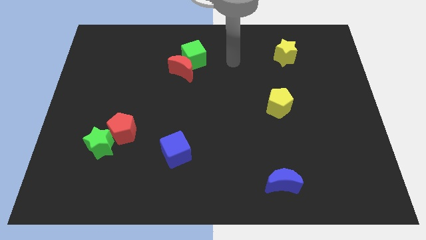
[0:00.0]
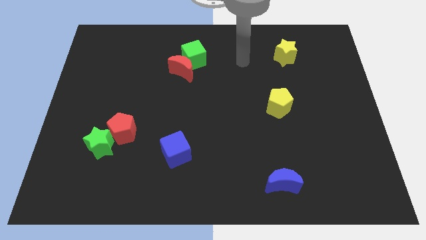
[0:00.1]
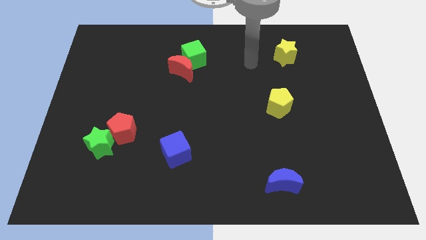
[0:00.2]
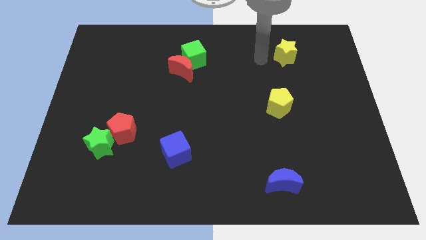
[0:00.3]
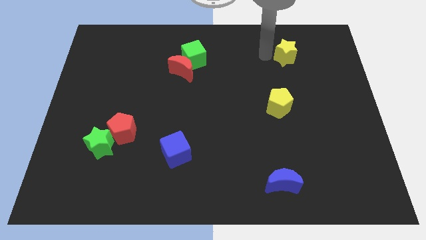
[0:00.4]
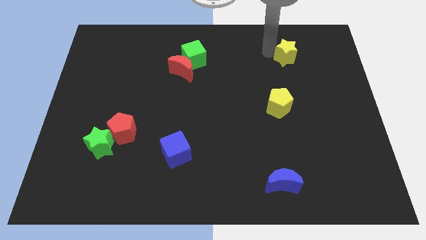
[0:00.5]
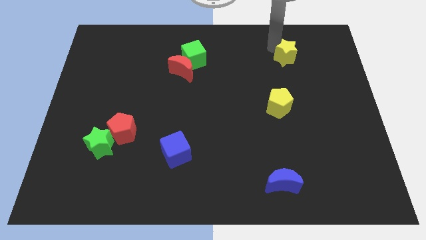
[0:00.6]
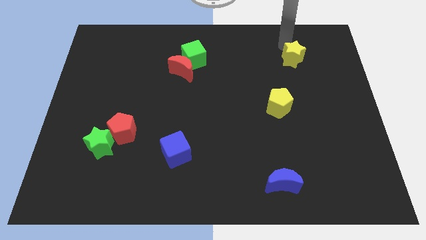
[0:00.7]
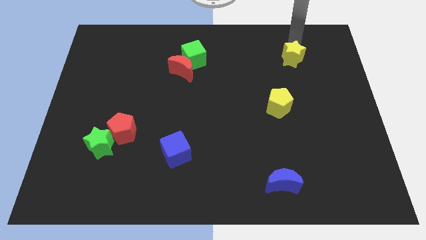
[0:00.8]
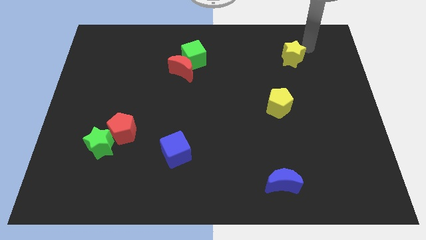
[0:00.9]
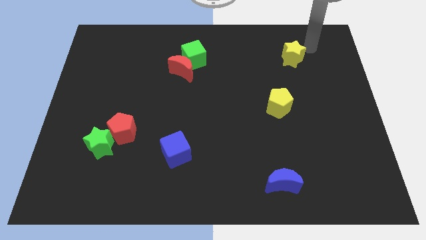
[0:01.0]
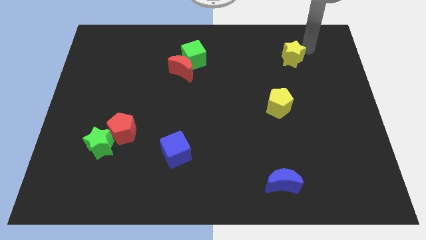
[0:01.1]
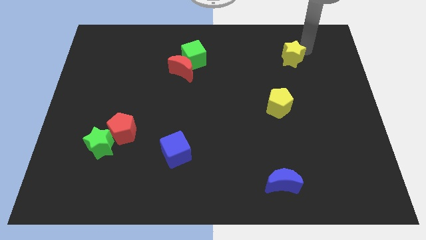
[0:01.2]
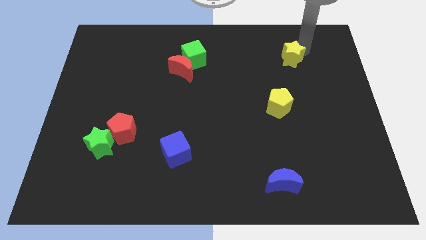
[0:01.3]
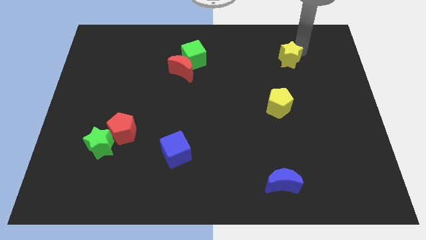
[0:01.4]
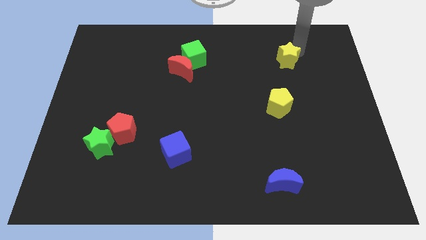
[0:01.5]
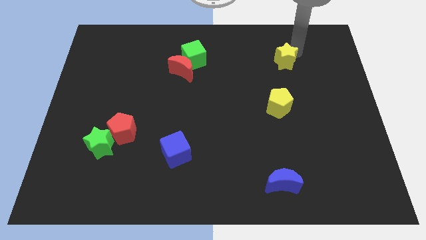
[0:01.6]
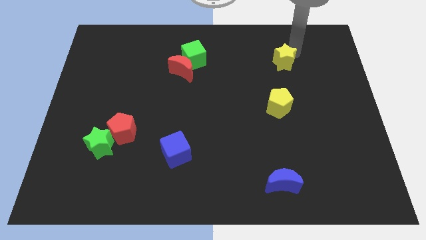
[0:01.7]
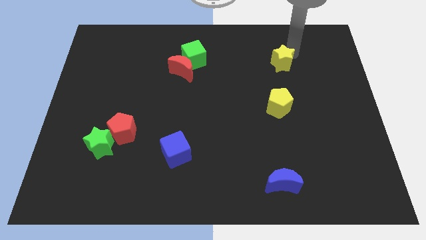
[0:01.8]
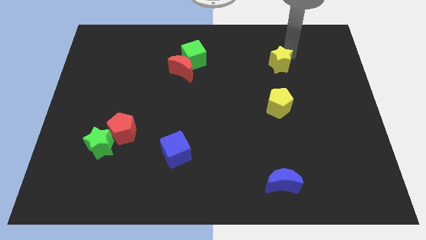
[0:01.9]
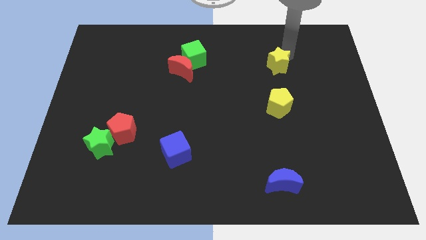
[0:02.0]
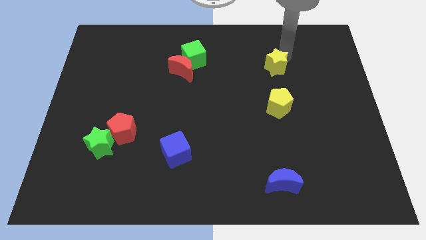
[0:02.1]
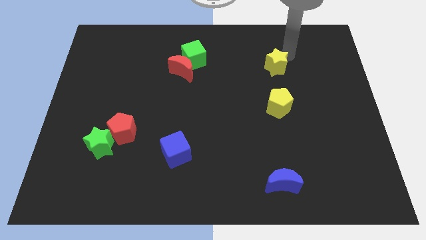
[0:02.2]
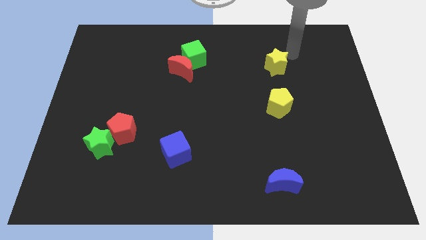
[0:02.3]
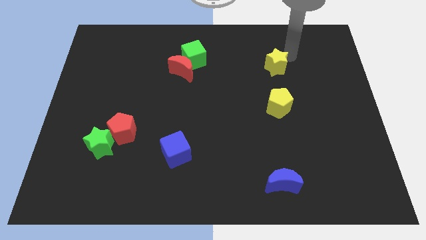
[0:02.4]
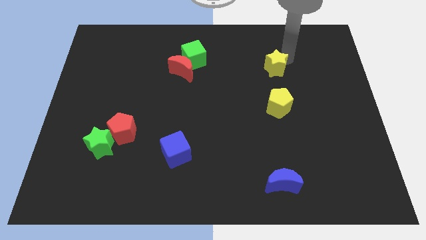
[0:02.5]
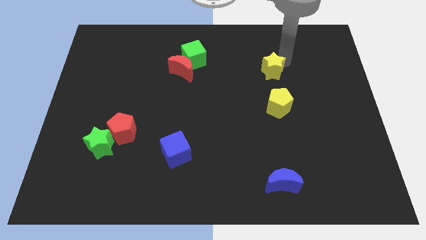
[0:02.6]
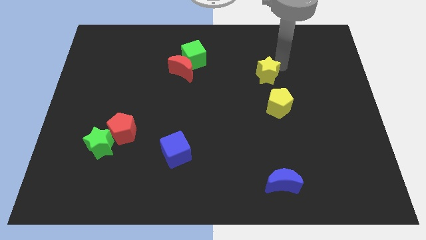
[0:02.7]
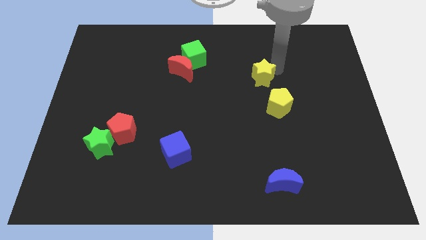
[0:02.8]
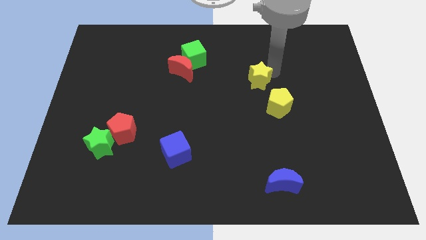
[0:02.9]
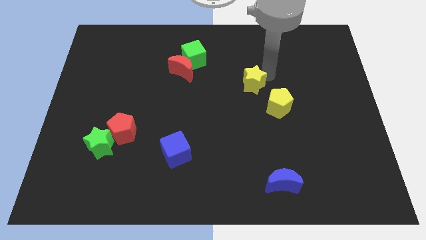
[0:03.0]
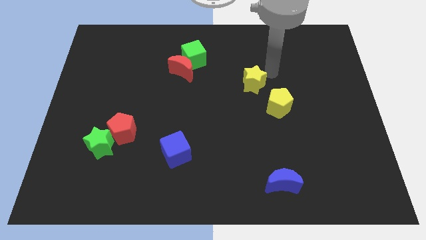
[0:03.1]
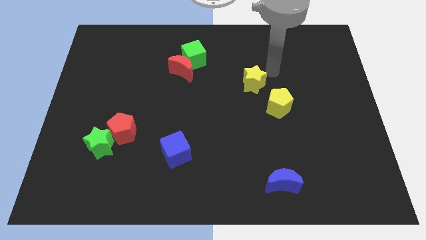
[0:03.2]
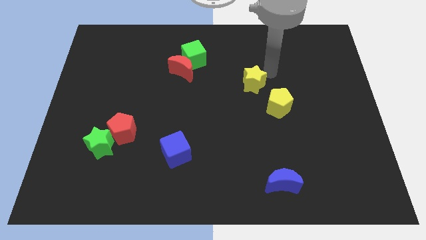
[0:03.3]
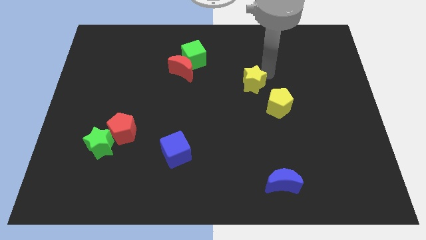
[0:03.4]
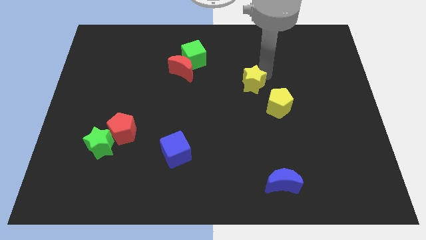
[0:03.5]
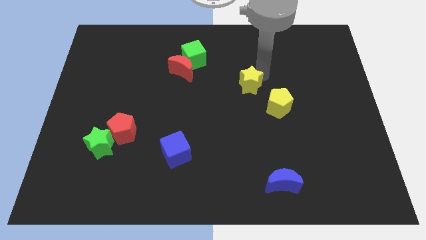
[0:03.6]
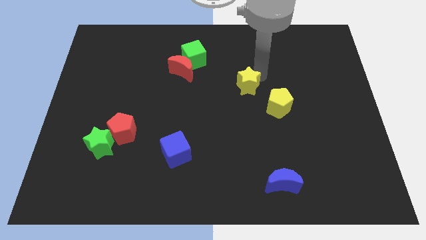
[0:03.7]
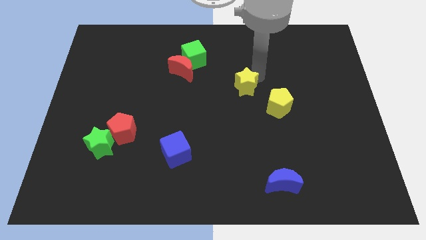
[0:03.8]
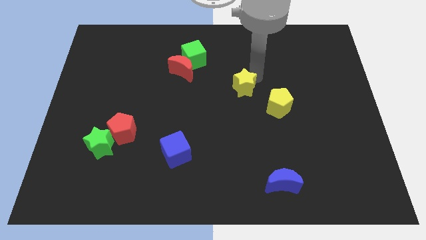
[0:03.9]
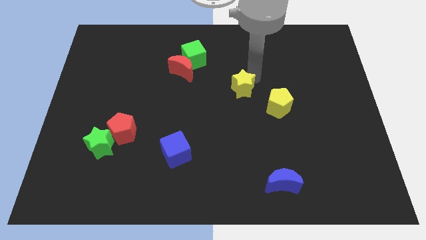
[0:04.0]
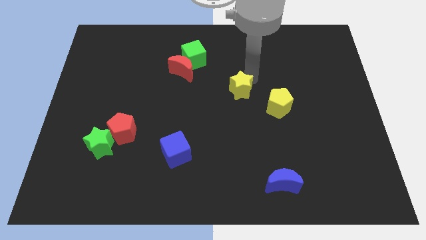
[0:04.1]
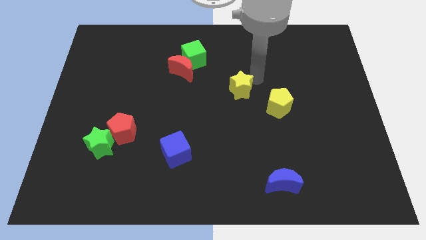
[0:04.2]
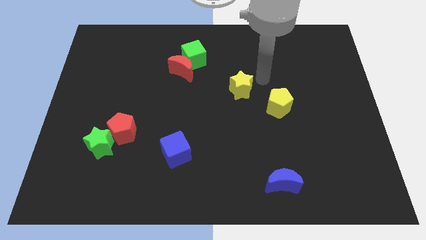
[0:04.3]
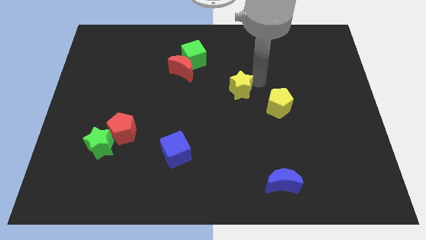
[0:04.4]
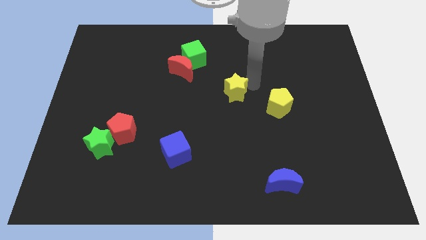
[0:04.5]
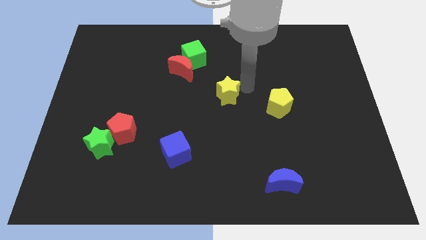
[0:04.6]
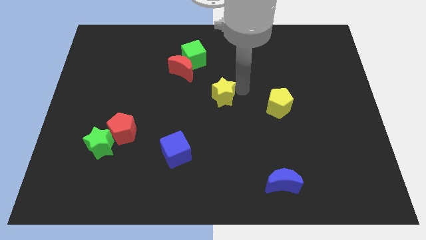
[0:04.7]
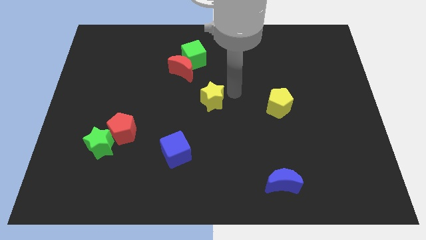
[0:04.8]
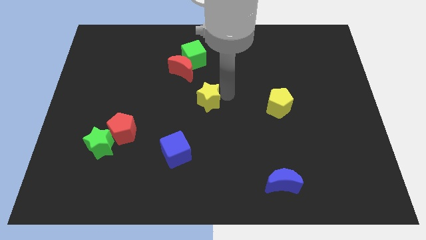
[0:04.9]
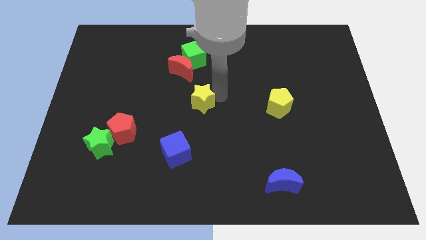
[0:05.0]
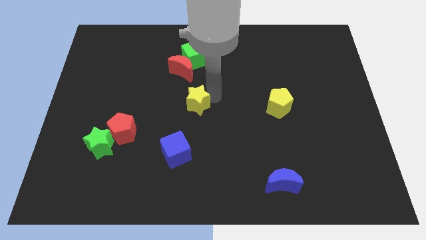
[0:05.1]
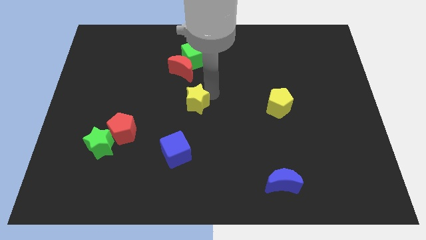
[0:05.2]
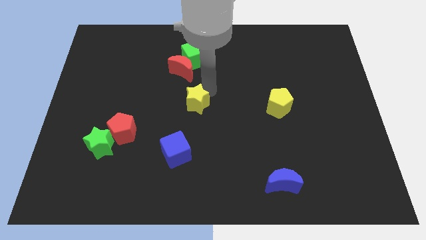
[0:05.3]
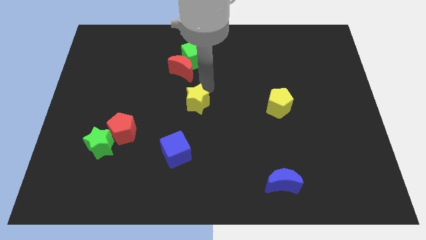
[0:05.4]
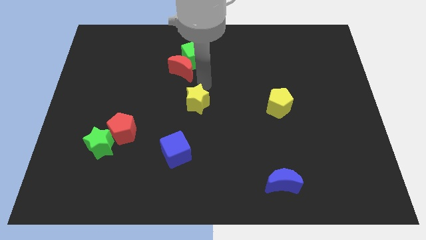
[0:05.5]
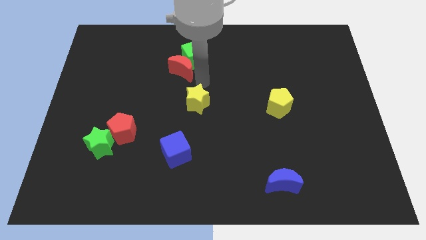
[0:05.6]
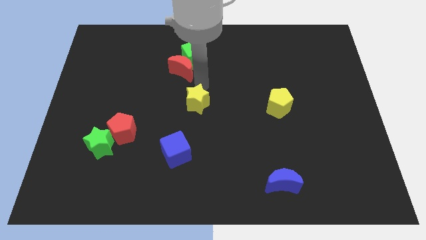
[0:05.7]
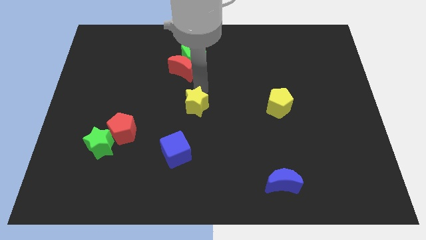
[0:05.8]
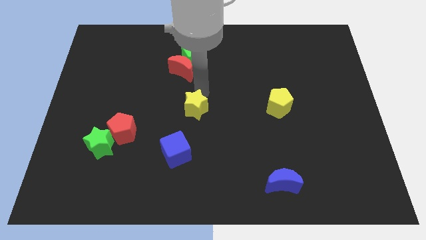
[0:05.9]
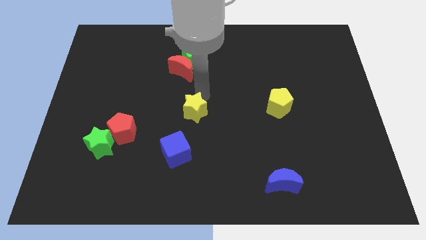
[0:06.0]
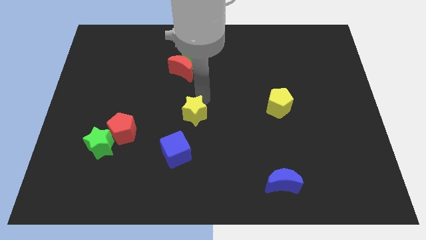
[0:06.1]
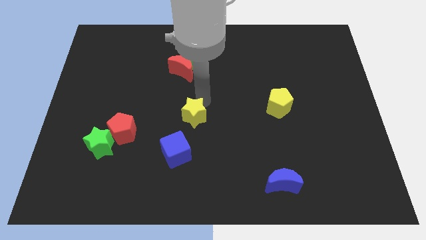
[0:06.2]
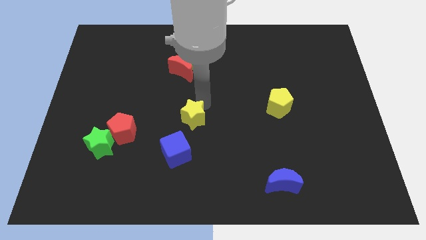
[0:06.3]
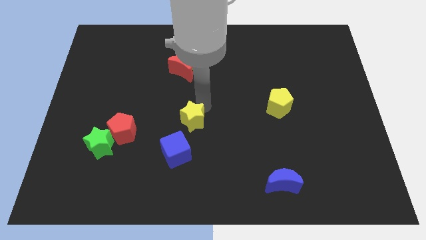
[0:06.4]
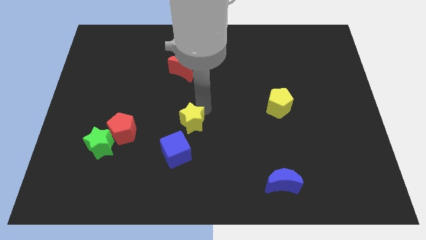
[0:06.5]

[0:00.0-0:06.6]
slide the yellow star to the right of the red pentagon

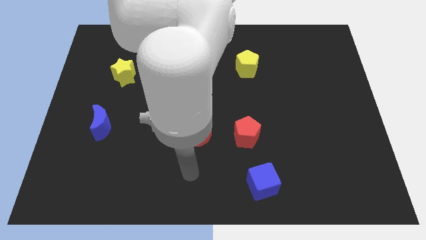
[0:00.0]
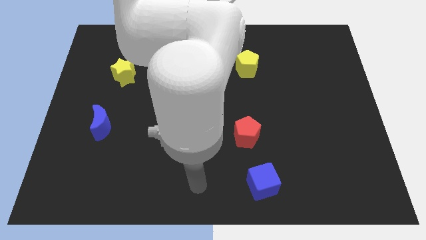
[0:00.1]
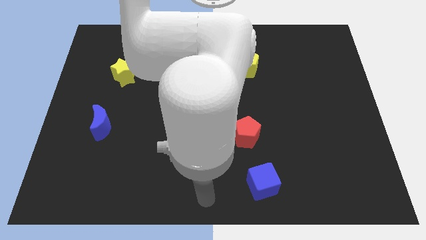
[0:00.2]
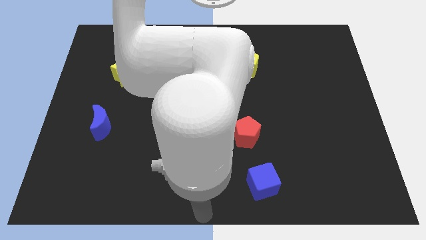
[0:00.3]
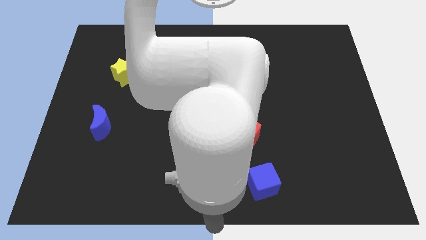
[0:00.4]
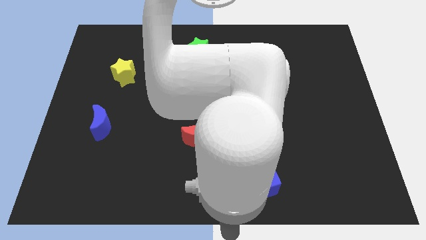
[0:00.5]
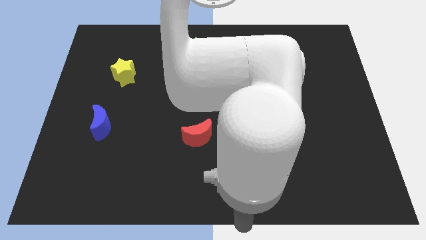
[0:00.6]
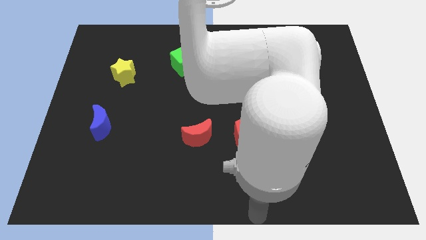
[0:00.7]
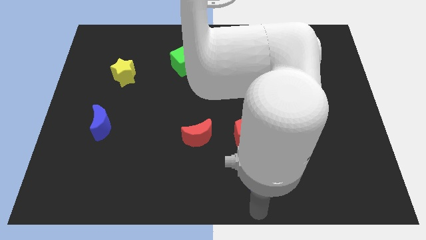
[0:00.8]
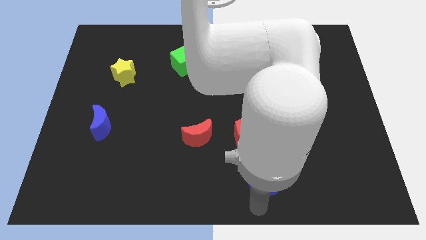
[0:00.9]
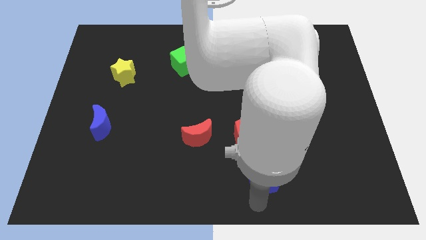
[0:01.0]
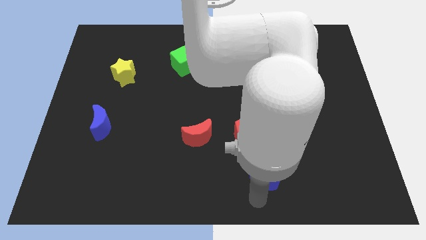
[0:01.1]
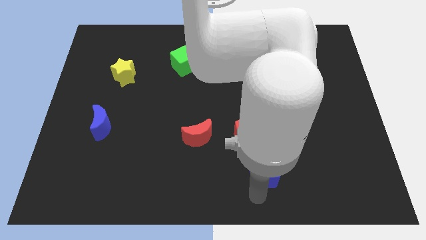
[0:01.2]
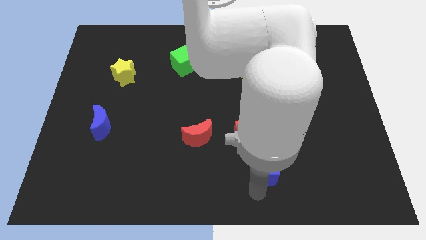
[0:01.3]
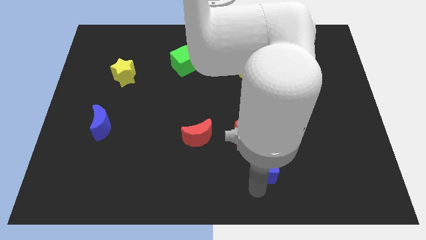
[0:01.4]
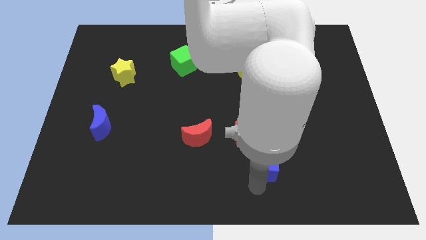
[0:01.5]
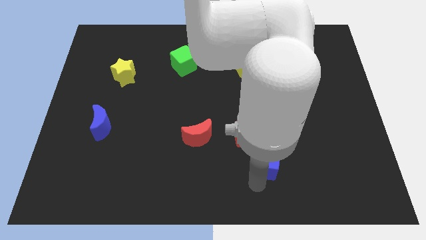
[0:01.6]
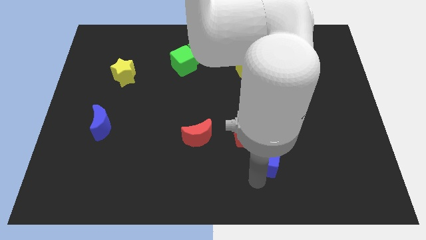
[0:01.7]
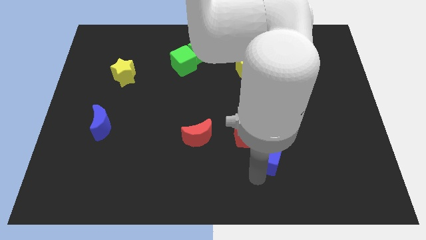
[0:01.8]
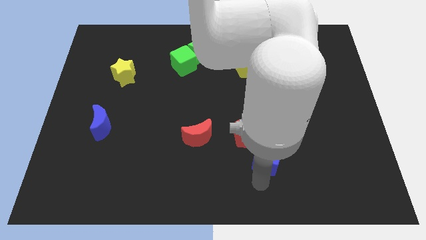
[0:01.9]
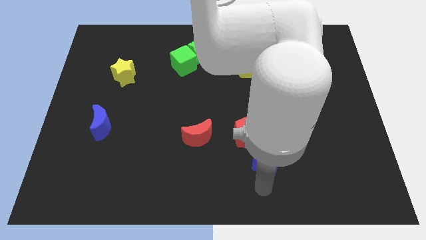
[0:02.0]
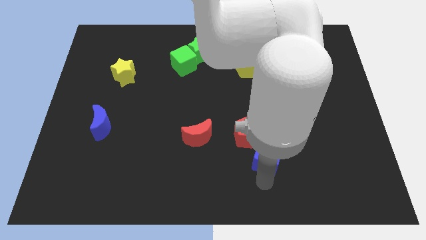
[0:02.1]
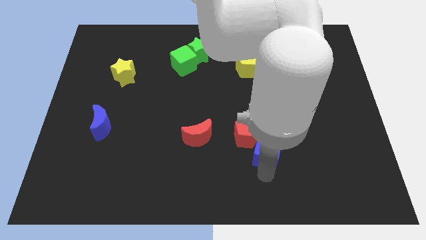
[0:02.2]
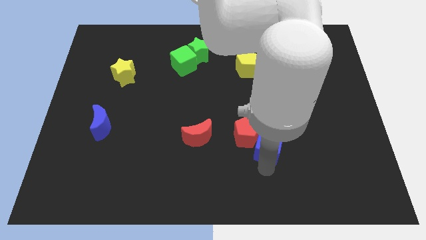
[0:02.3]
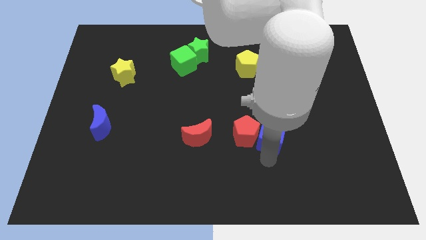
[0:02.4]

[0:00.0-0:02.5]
move the blue cube diagonally up and to the right of the red pentagon
